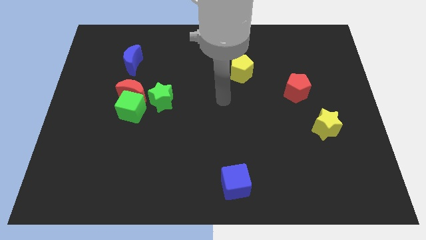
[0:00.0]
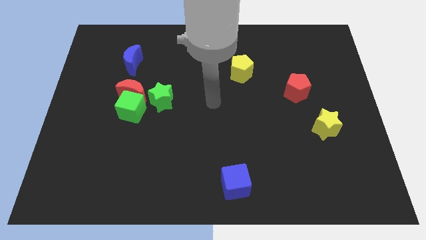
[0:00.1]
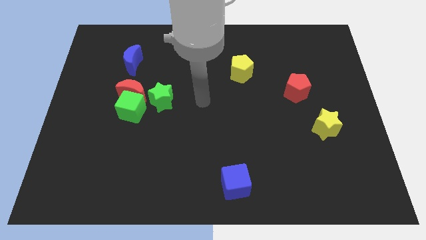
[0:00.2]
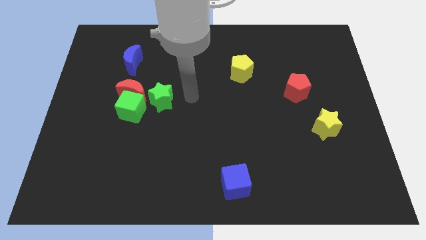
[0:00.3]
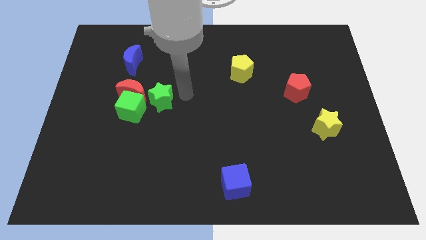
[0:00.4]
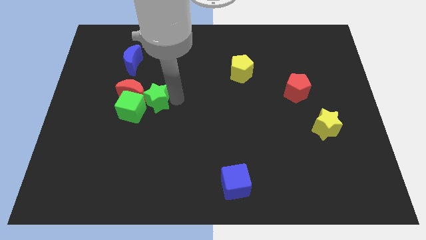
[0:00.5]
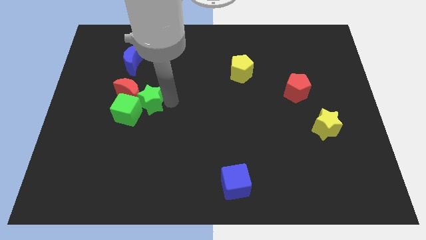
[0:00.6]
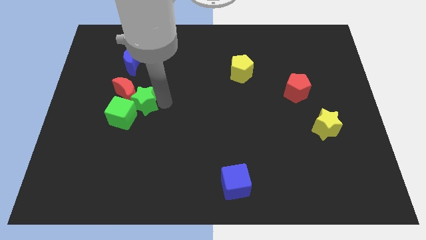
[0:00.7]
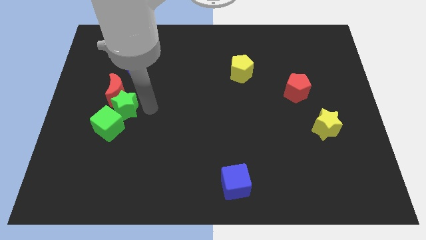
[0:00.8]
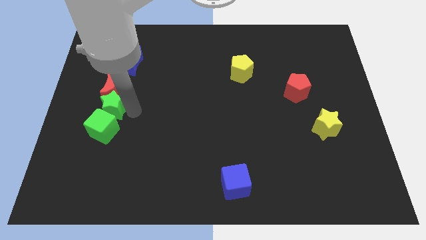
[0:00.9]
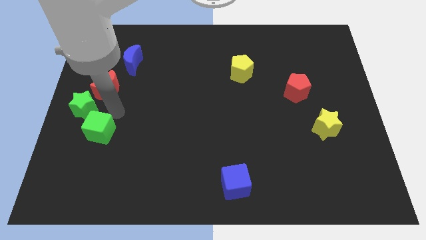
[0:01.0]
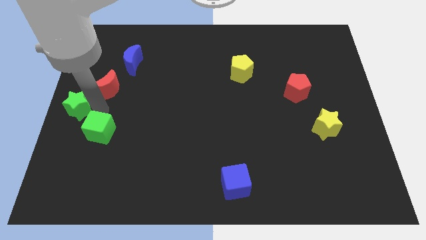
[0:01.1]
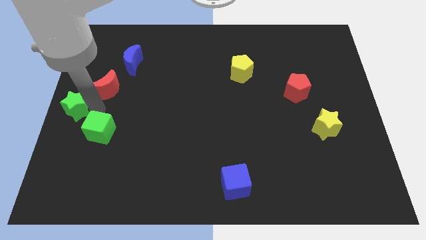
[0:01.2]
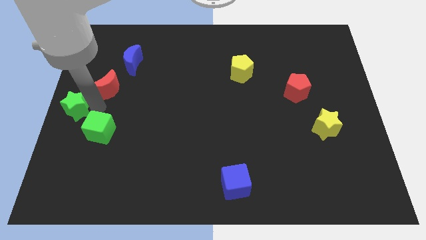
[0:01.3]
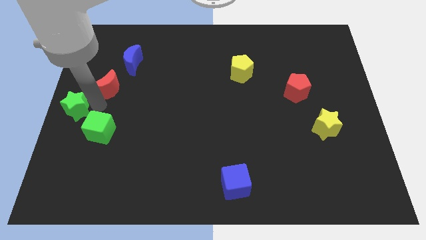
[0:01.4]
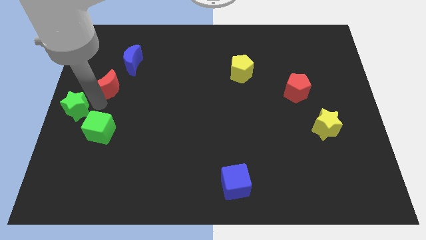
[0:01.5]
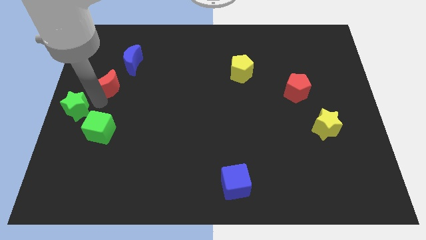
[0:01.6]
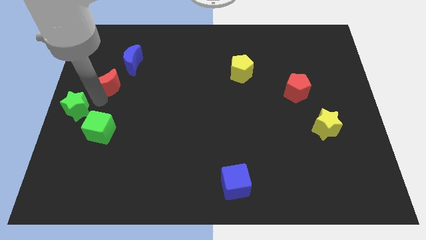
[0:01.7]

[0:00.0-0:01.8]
move the red moon away from the green cube and green star

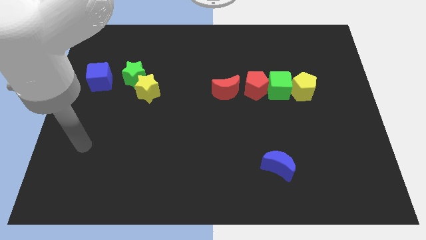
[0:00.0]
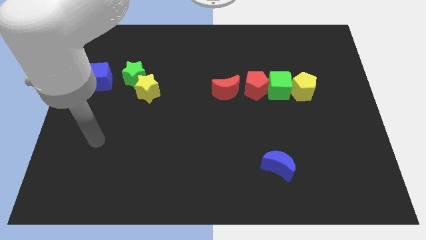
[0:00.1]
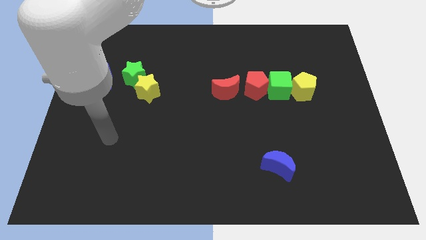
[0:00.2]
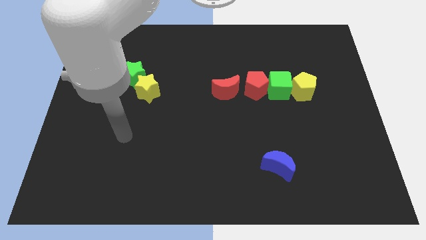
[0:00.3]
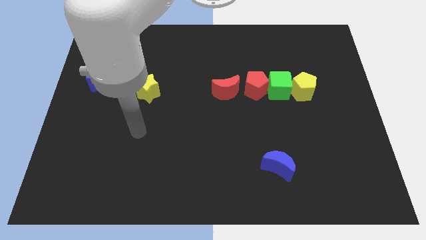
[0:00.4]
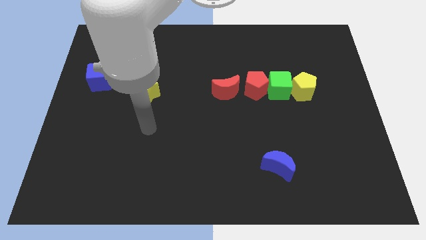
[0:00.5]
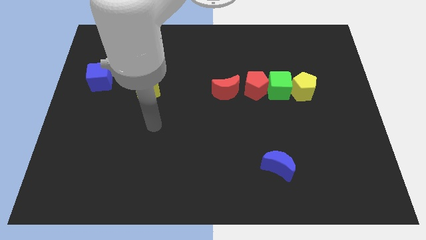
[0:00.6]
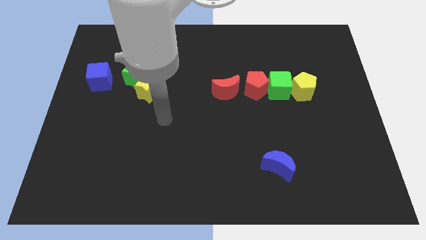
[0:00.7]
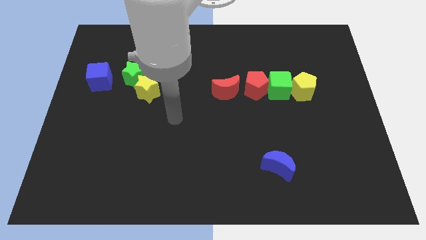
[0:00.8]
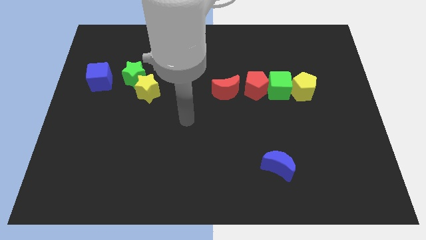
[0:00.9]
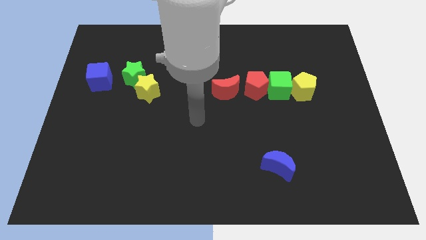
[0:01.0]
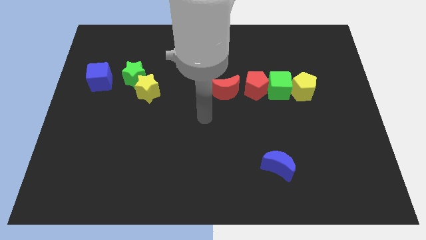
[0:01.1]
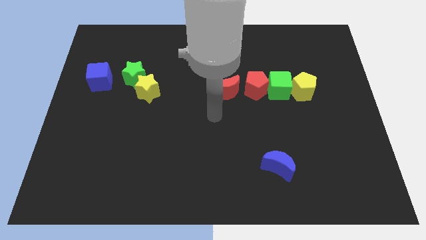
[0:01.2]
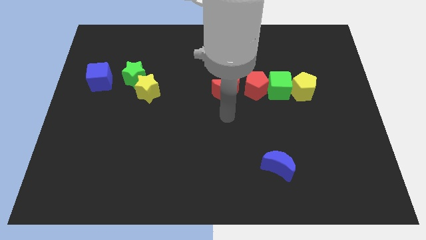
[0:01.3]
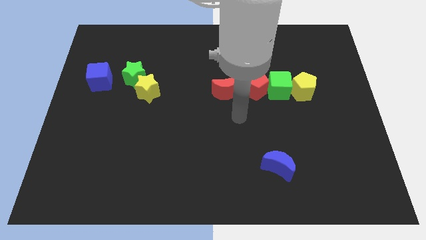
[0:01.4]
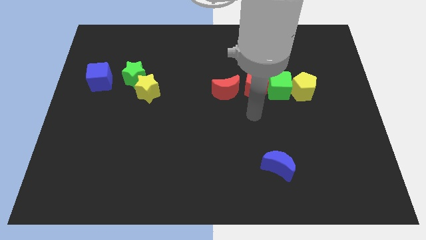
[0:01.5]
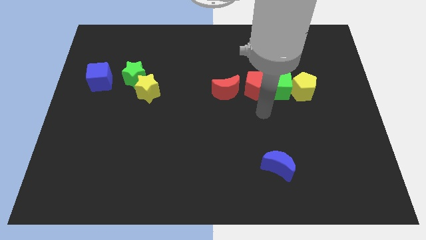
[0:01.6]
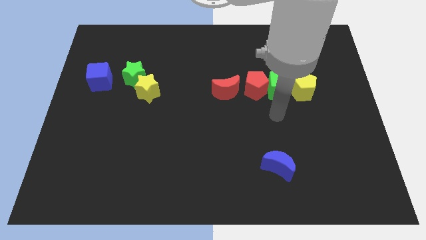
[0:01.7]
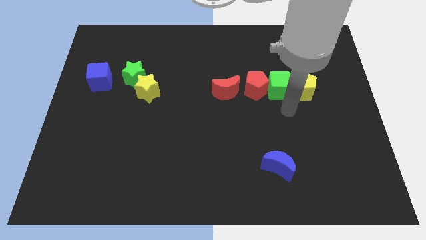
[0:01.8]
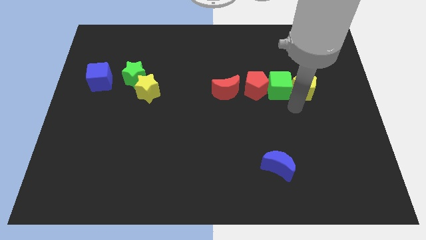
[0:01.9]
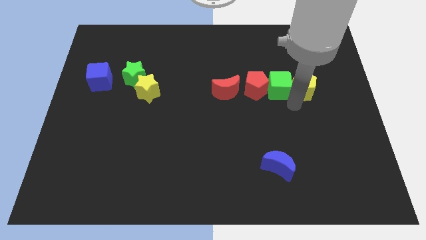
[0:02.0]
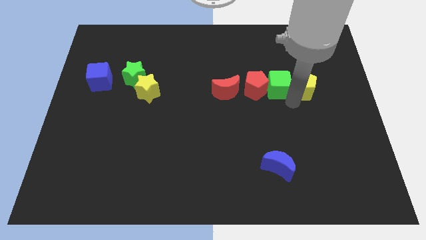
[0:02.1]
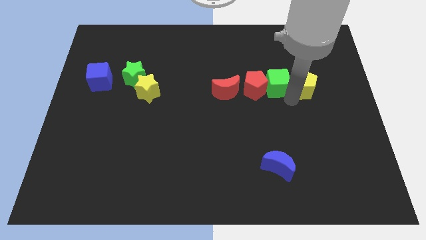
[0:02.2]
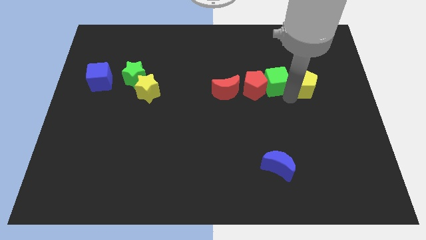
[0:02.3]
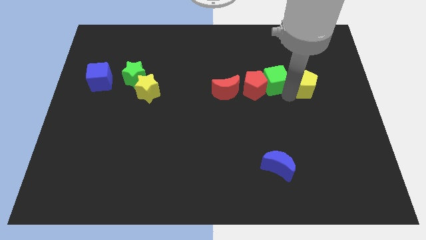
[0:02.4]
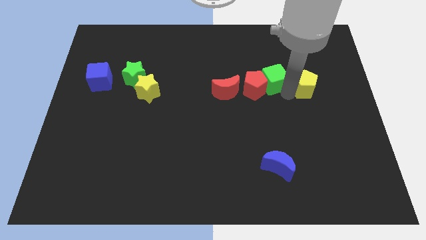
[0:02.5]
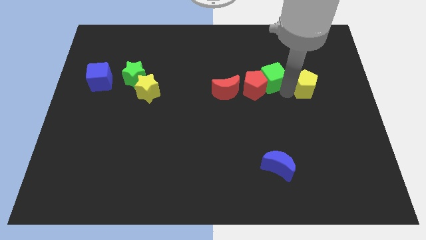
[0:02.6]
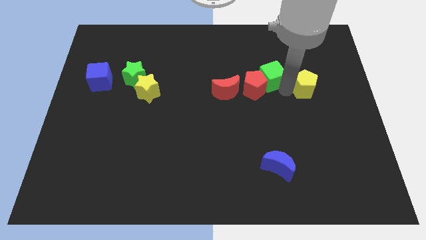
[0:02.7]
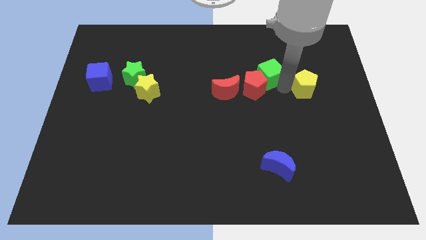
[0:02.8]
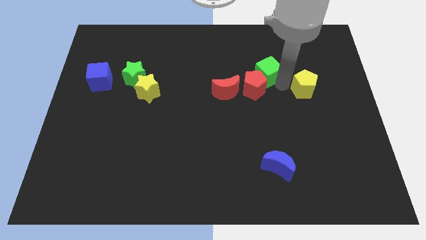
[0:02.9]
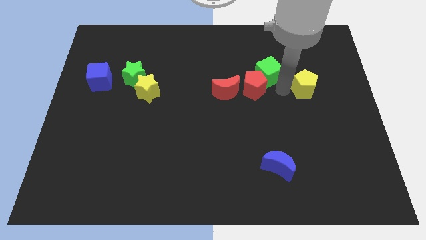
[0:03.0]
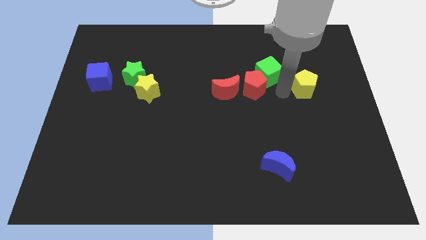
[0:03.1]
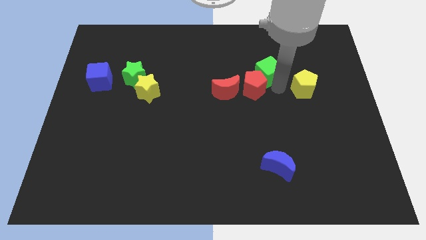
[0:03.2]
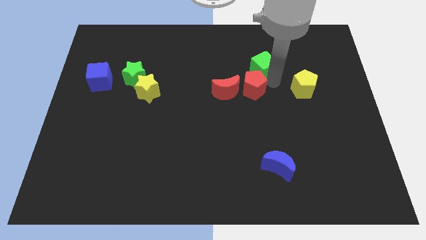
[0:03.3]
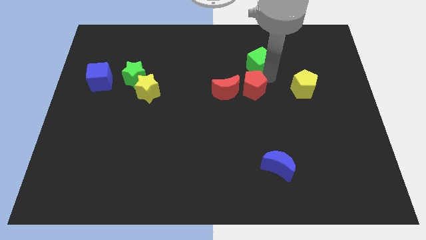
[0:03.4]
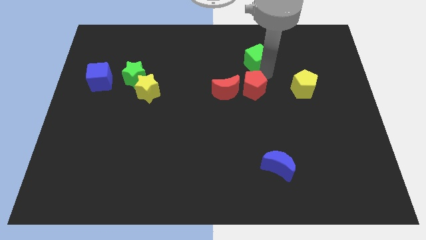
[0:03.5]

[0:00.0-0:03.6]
separate the green cube from the red pentagon and yellow pentagon

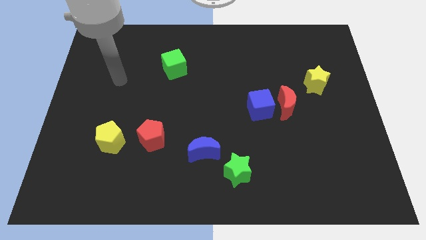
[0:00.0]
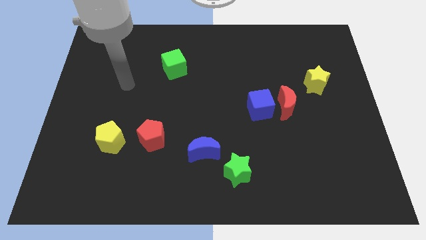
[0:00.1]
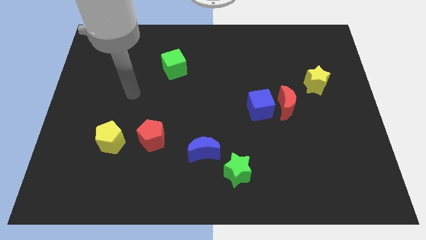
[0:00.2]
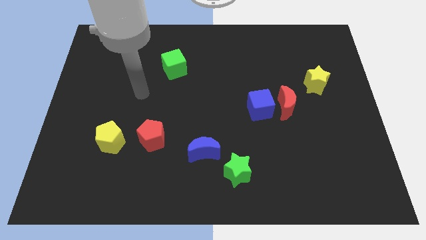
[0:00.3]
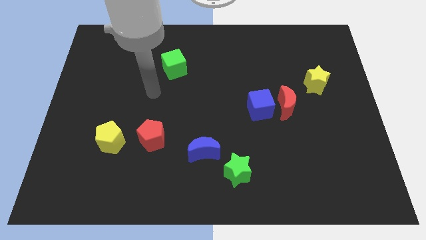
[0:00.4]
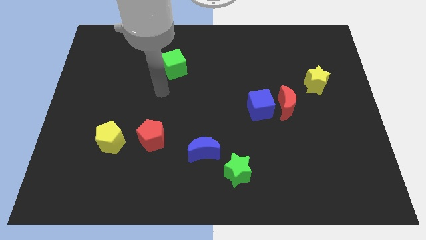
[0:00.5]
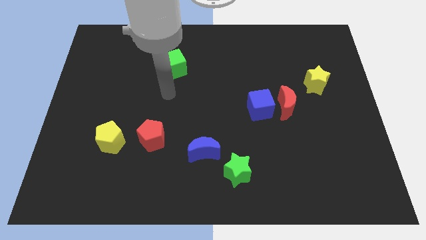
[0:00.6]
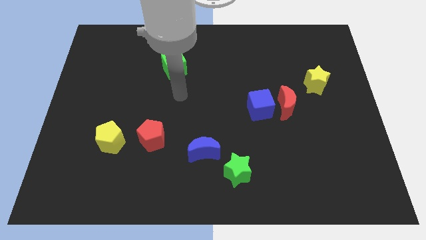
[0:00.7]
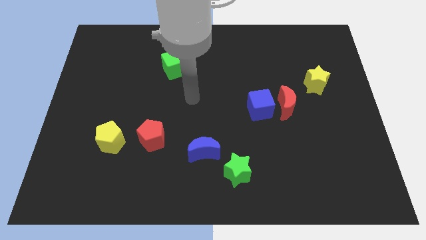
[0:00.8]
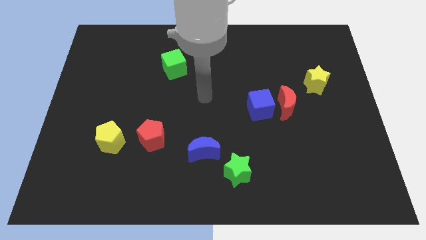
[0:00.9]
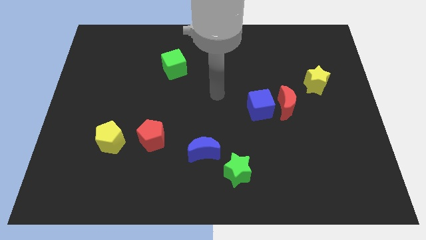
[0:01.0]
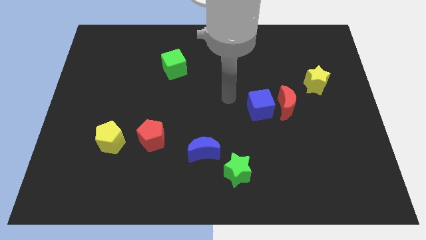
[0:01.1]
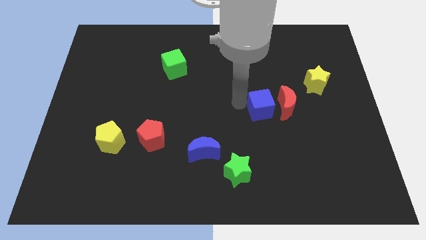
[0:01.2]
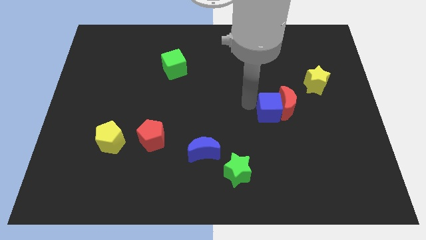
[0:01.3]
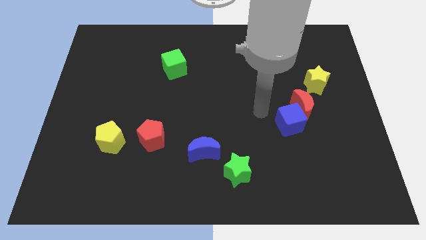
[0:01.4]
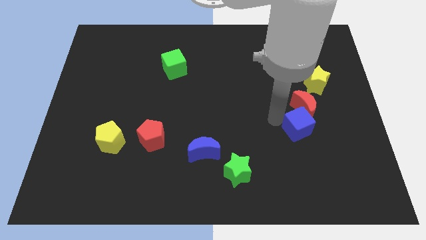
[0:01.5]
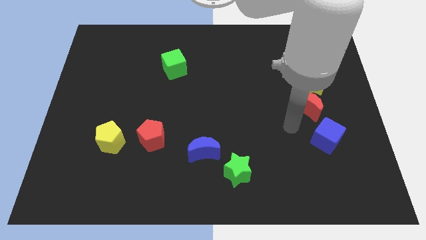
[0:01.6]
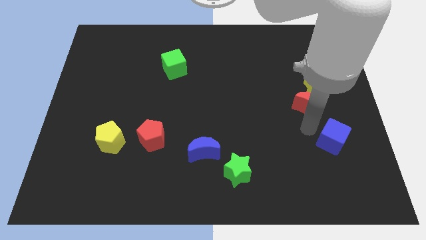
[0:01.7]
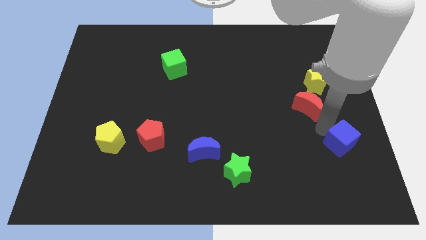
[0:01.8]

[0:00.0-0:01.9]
separate the red moon from the blue cube

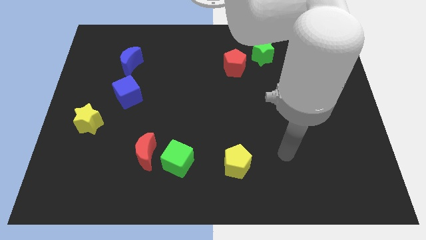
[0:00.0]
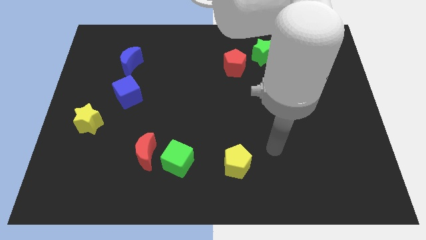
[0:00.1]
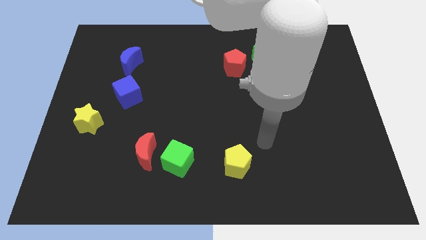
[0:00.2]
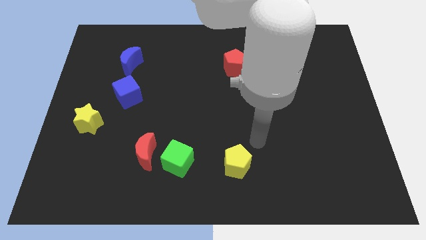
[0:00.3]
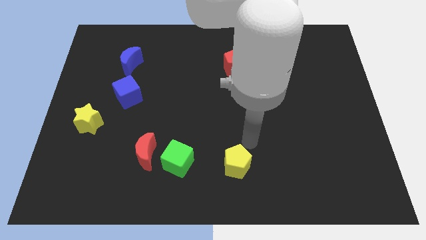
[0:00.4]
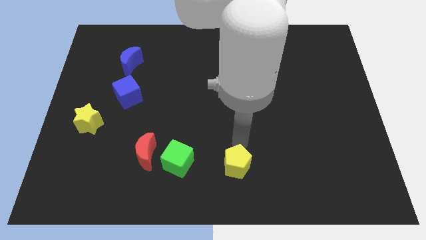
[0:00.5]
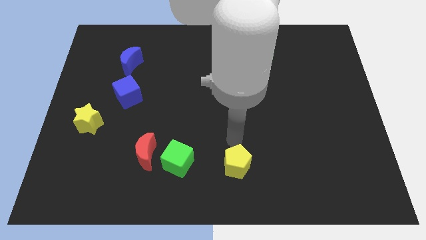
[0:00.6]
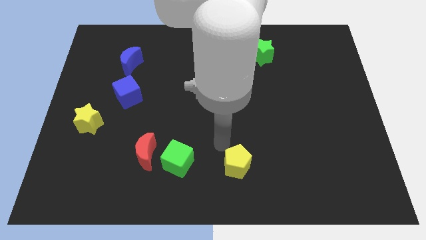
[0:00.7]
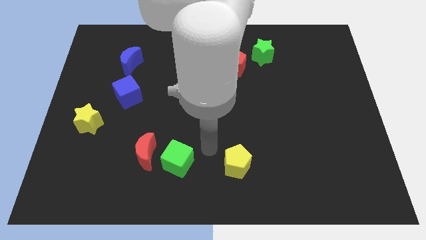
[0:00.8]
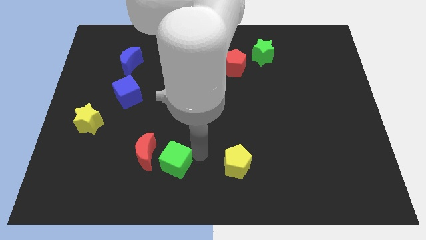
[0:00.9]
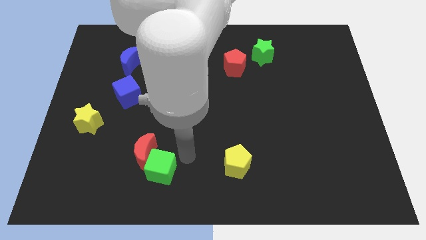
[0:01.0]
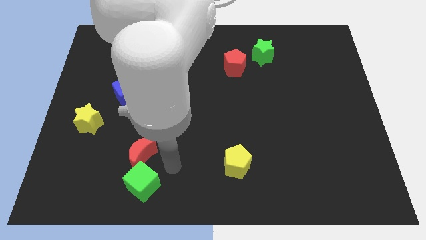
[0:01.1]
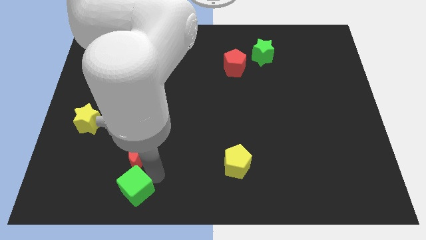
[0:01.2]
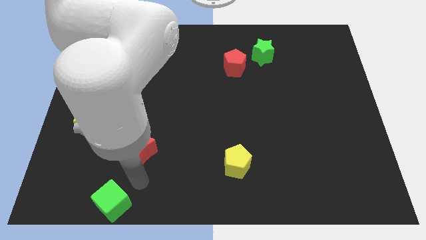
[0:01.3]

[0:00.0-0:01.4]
move the red moon away from the green cube

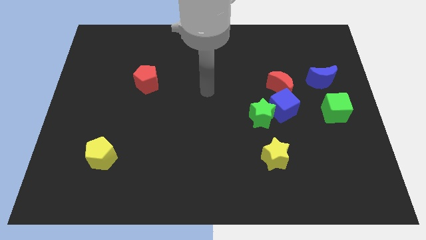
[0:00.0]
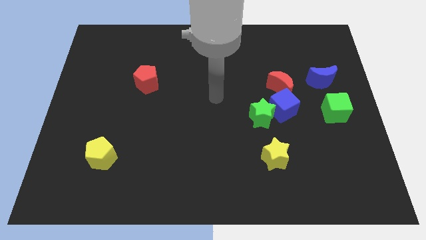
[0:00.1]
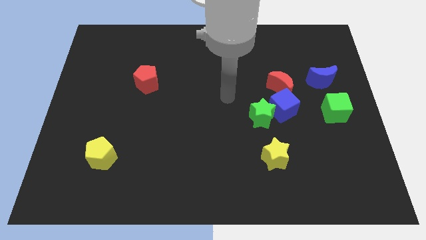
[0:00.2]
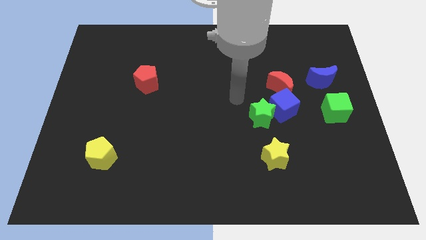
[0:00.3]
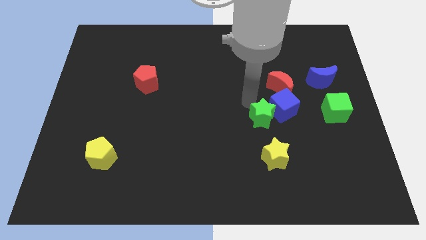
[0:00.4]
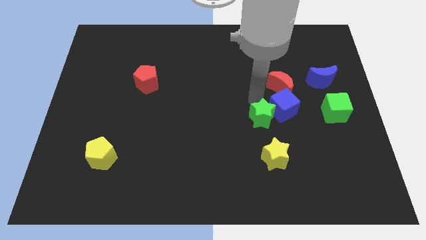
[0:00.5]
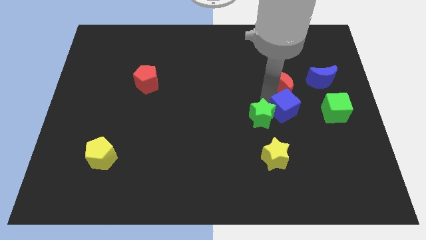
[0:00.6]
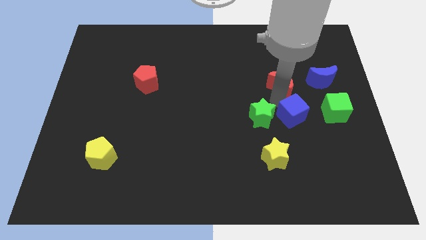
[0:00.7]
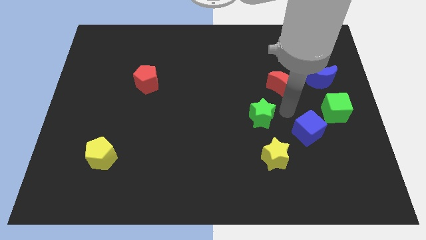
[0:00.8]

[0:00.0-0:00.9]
separate the green star from the blue cube
